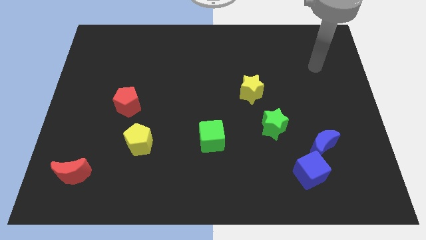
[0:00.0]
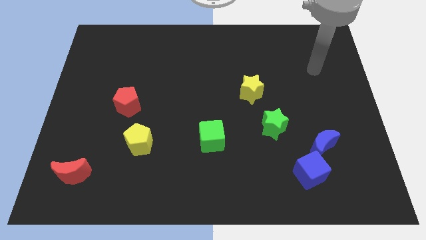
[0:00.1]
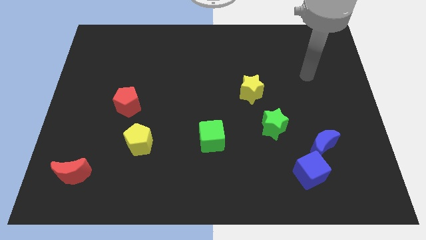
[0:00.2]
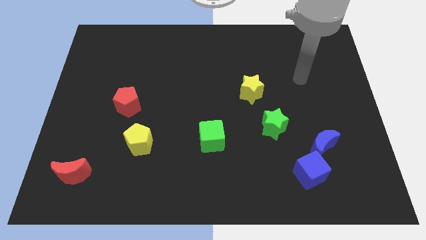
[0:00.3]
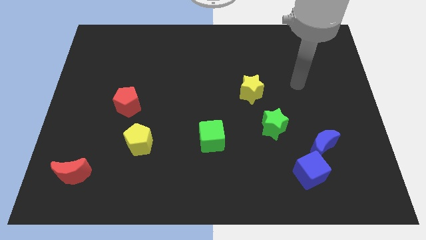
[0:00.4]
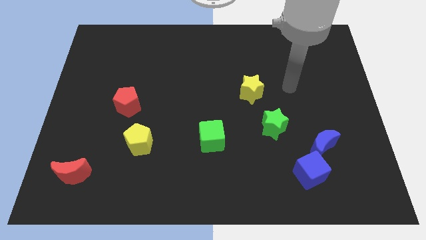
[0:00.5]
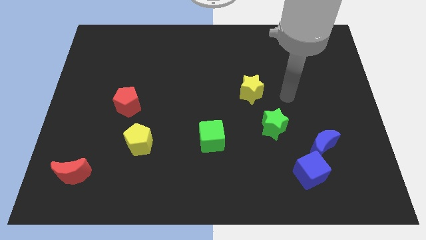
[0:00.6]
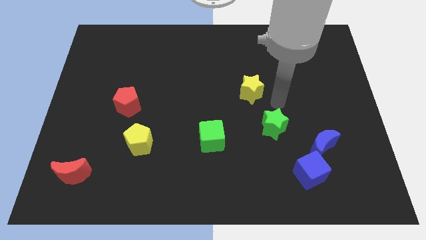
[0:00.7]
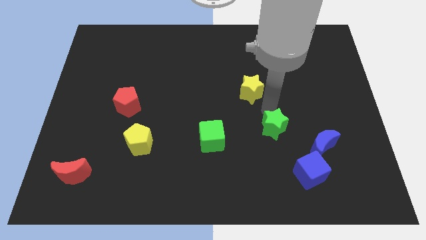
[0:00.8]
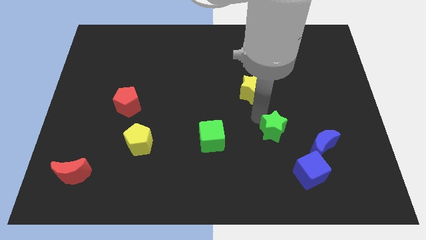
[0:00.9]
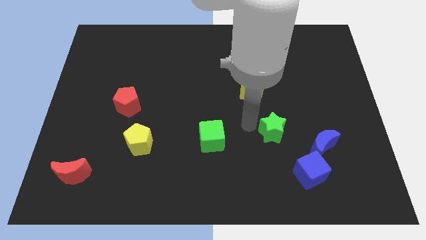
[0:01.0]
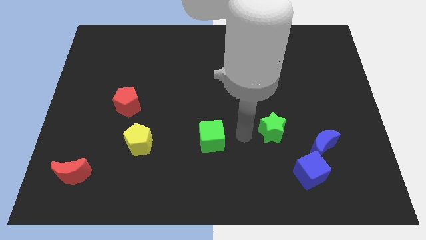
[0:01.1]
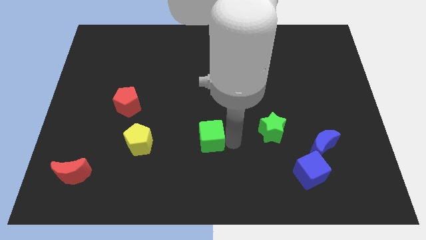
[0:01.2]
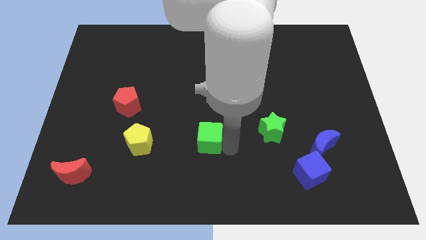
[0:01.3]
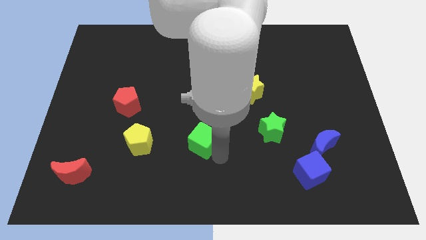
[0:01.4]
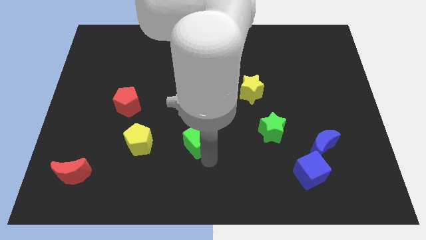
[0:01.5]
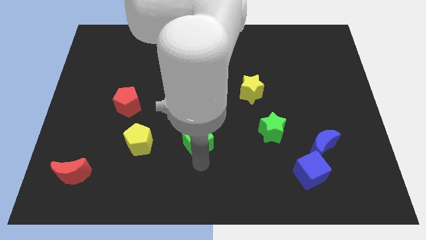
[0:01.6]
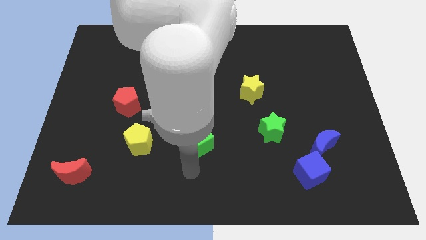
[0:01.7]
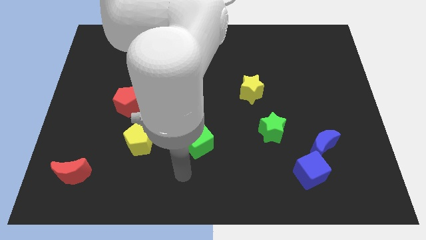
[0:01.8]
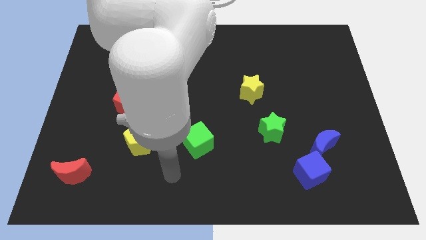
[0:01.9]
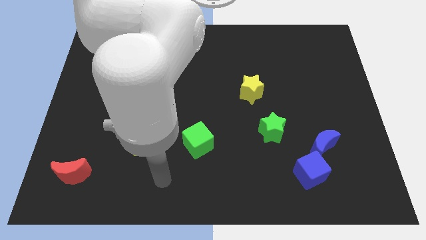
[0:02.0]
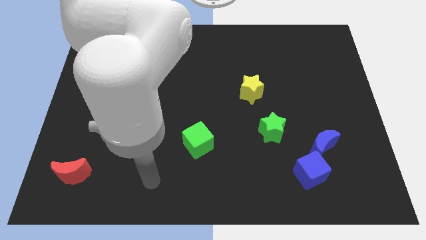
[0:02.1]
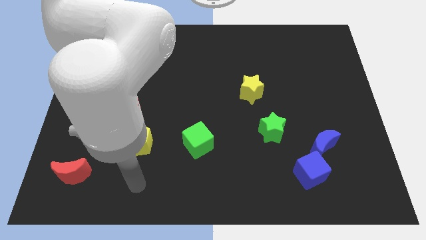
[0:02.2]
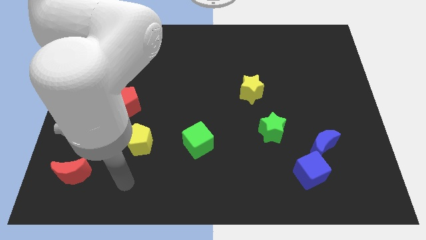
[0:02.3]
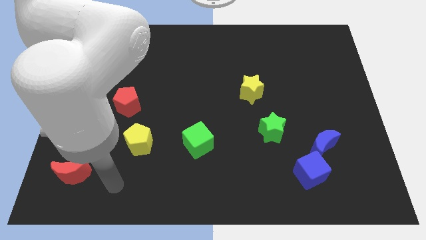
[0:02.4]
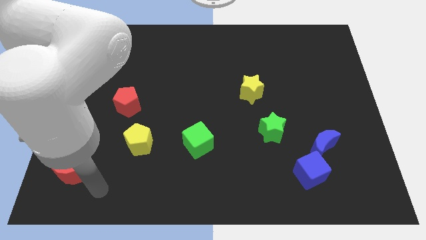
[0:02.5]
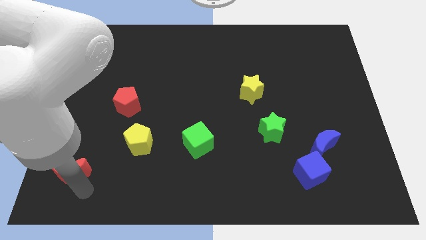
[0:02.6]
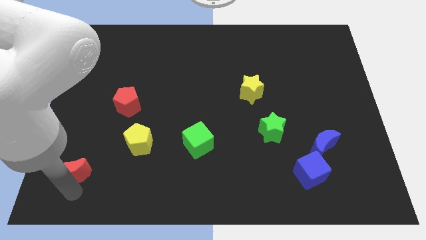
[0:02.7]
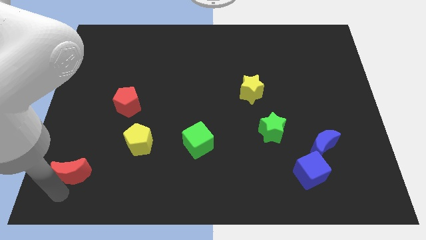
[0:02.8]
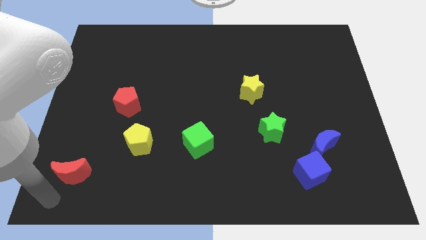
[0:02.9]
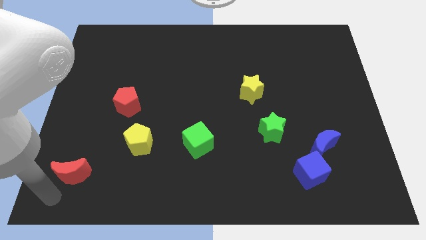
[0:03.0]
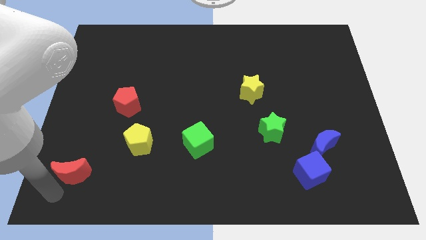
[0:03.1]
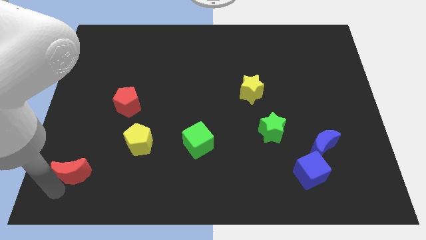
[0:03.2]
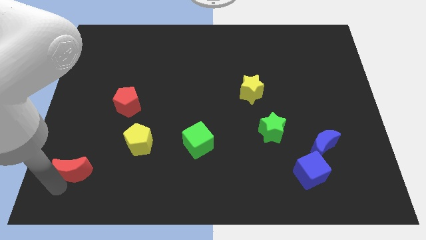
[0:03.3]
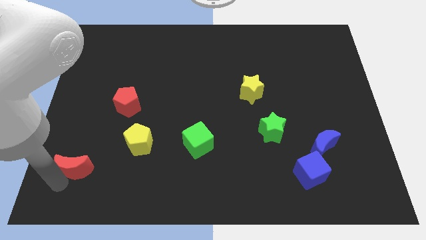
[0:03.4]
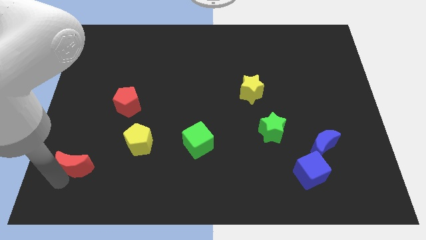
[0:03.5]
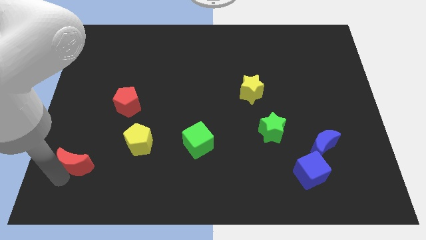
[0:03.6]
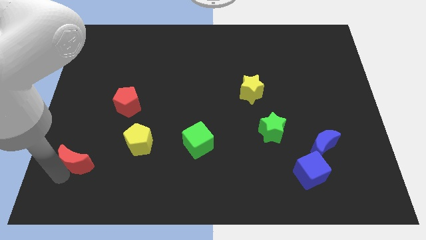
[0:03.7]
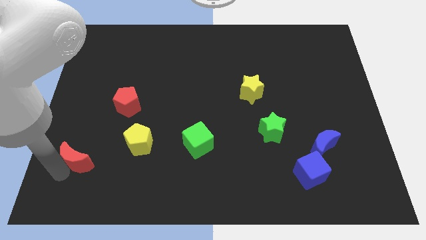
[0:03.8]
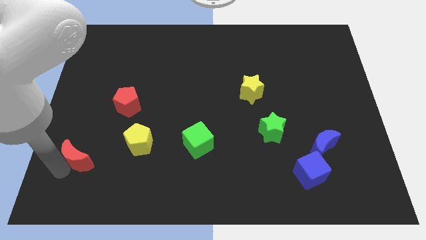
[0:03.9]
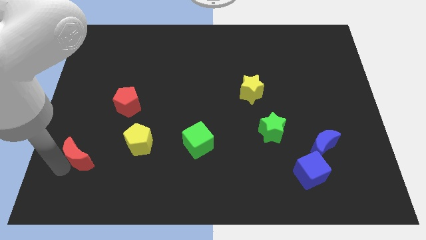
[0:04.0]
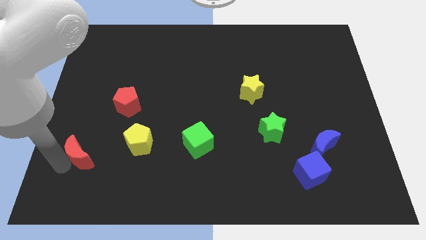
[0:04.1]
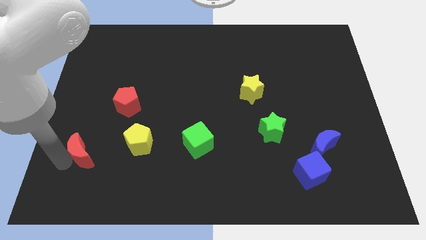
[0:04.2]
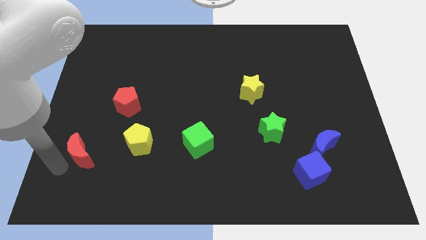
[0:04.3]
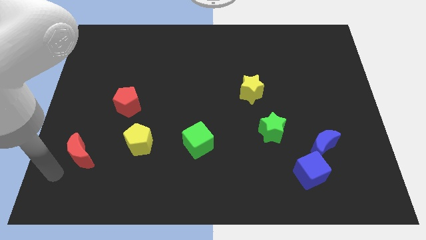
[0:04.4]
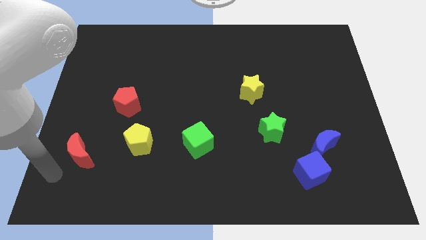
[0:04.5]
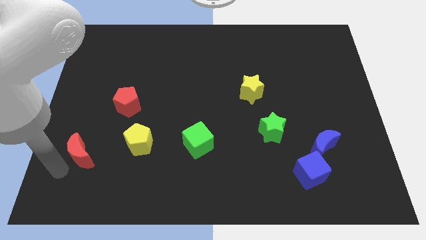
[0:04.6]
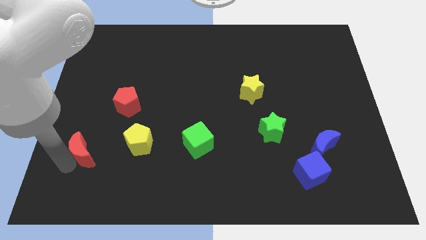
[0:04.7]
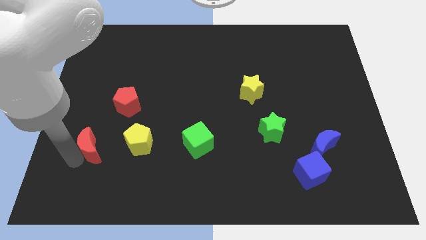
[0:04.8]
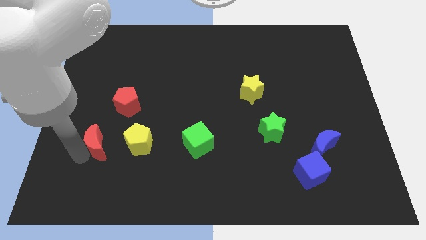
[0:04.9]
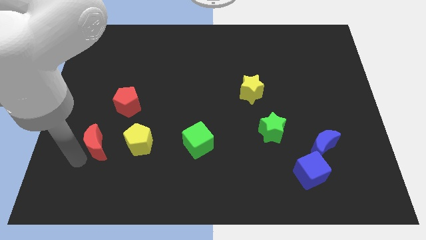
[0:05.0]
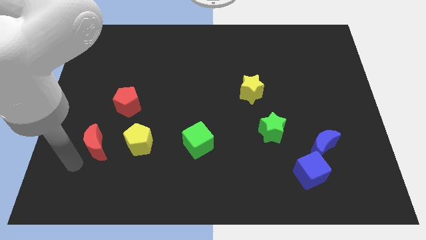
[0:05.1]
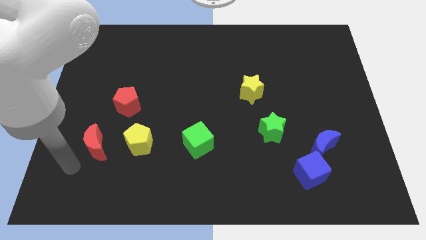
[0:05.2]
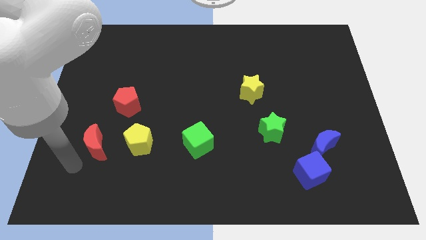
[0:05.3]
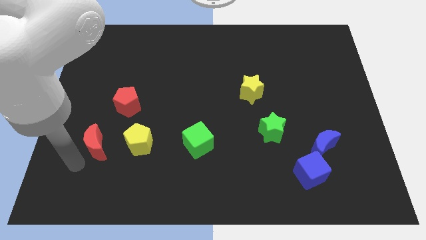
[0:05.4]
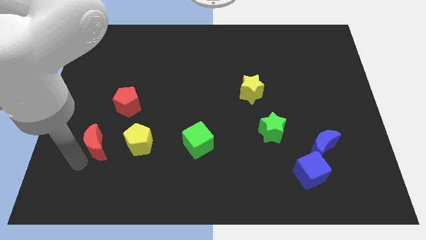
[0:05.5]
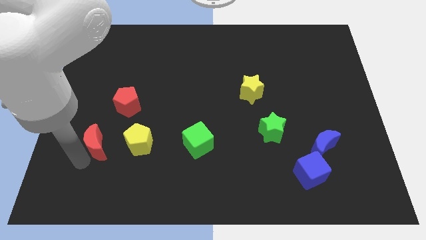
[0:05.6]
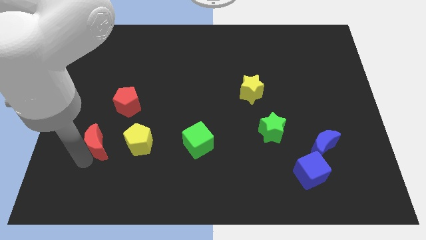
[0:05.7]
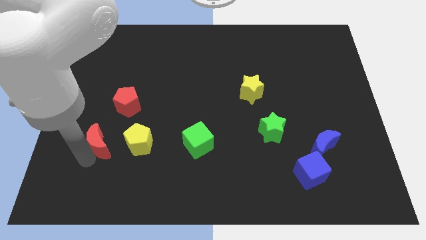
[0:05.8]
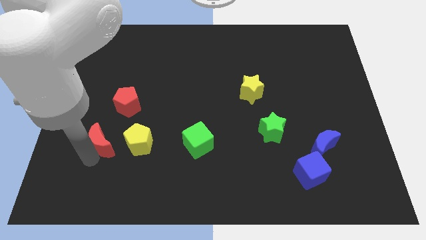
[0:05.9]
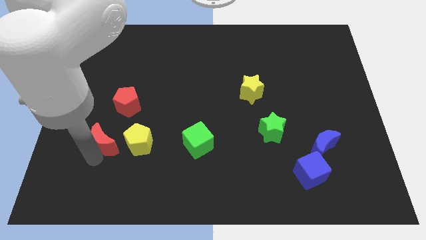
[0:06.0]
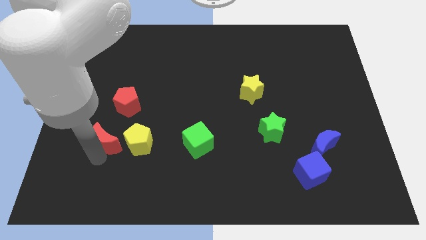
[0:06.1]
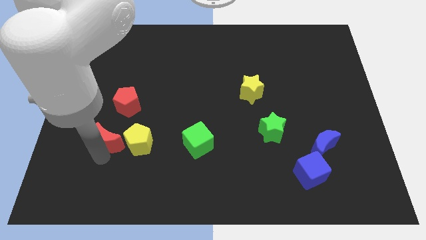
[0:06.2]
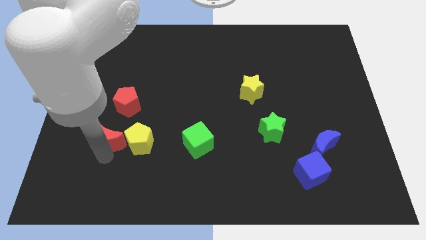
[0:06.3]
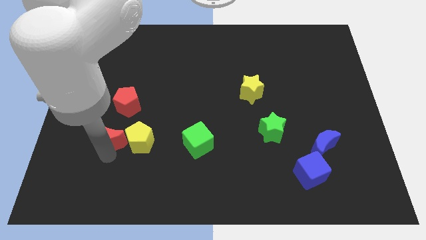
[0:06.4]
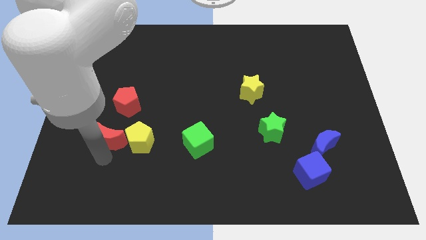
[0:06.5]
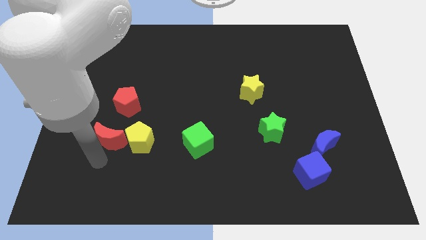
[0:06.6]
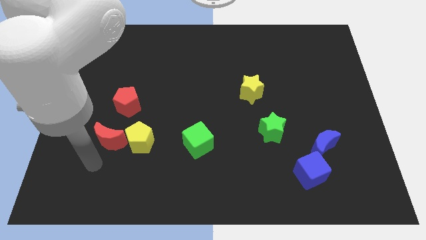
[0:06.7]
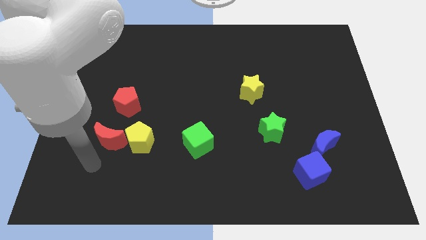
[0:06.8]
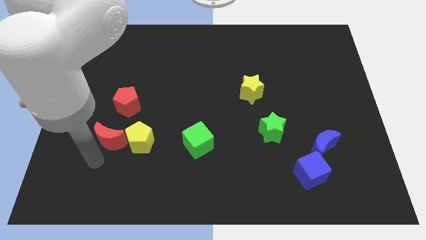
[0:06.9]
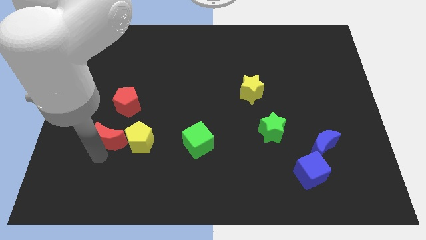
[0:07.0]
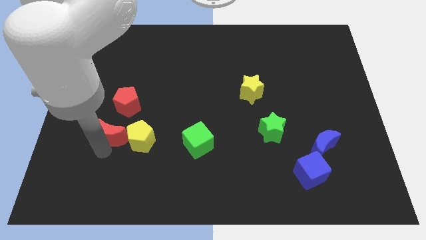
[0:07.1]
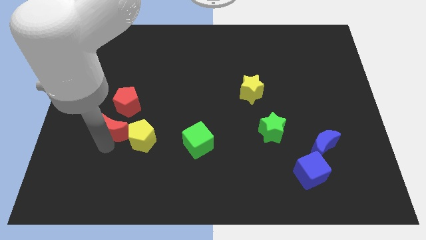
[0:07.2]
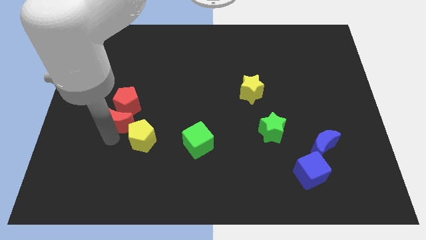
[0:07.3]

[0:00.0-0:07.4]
push the red moon to the red pentagon

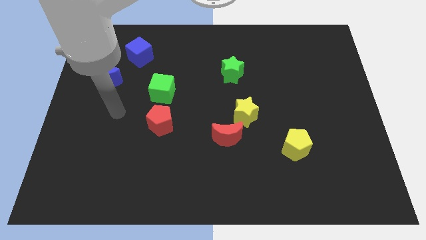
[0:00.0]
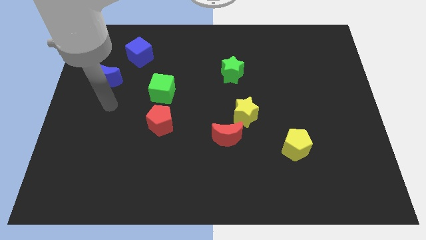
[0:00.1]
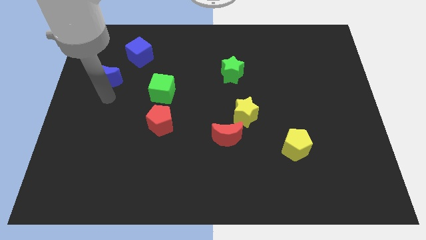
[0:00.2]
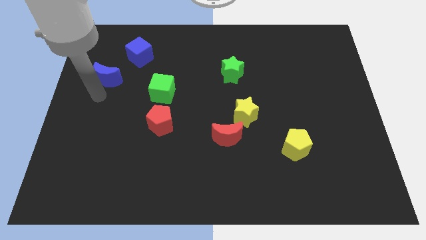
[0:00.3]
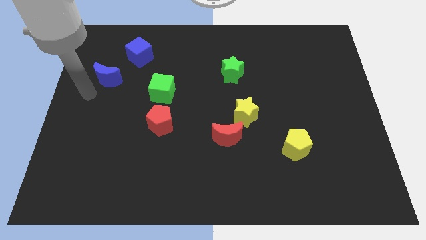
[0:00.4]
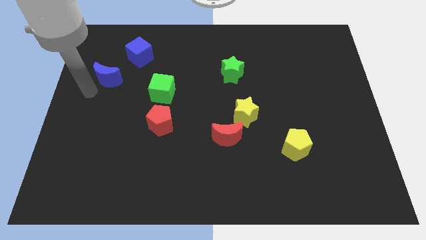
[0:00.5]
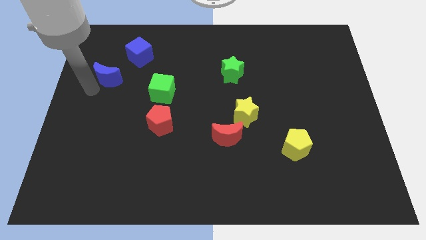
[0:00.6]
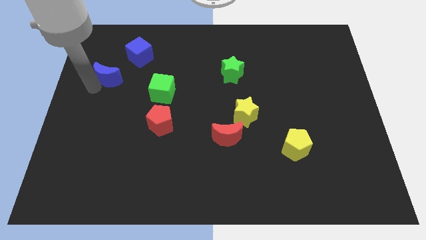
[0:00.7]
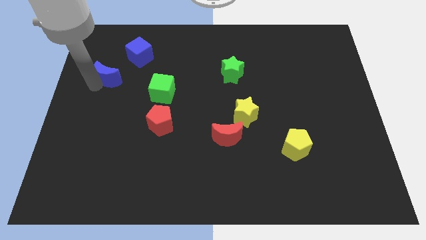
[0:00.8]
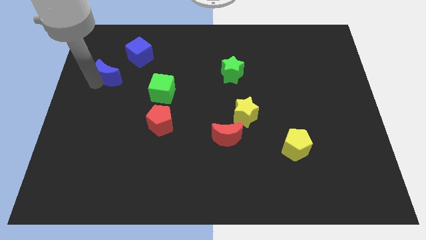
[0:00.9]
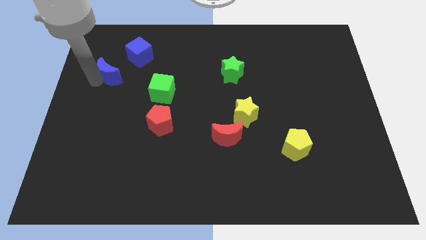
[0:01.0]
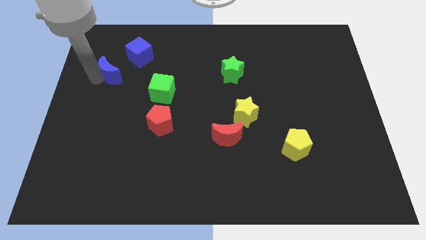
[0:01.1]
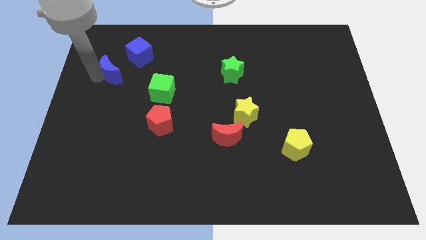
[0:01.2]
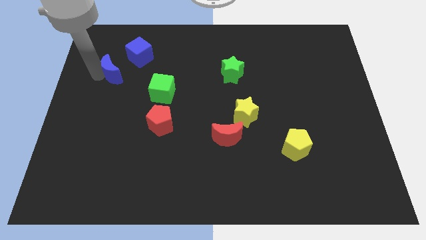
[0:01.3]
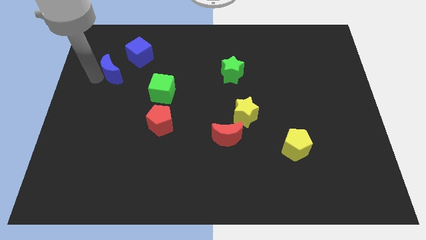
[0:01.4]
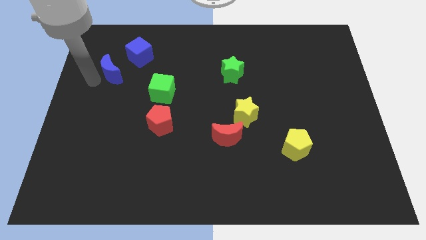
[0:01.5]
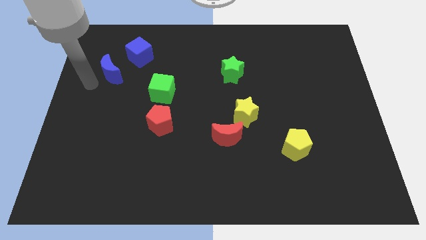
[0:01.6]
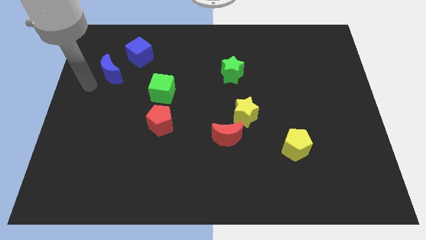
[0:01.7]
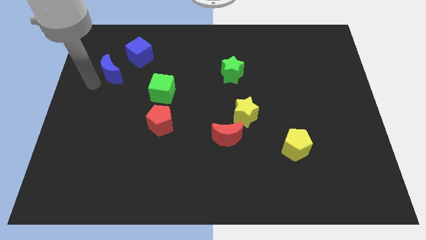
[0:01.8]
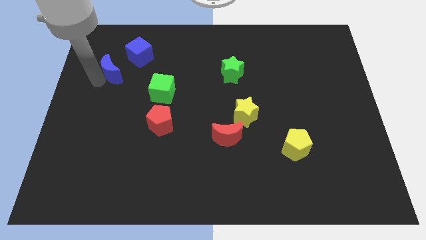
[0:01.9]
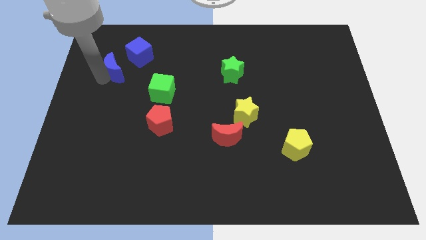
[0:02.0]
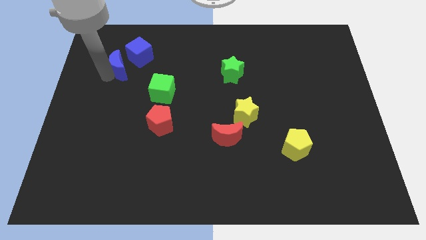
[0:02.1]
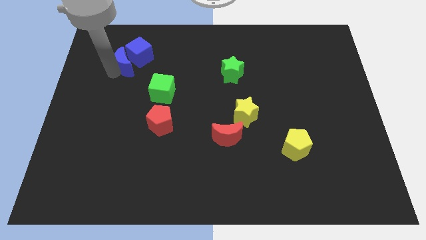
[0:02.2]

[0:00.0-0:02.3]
push the blue moon next to the blue cube
